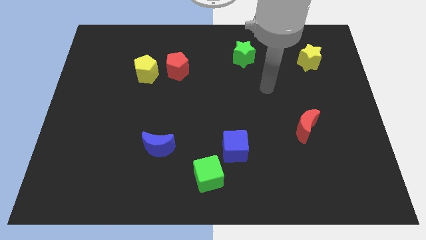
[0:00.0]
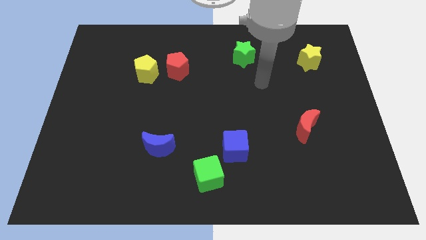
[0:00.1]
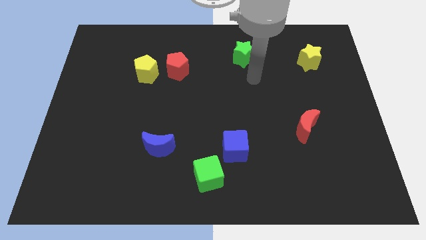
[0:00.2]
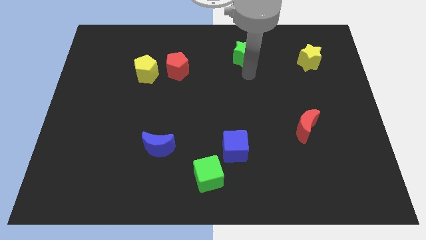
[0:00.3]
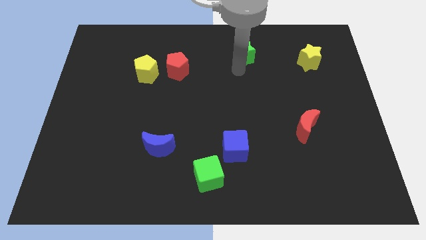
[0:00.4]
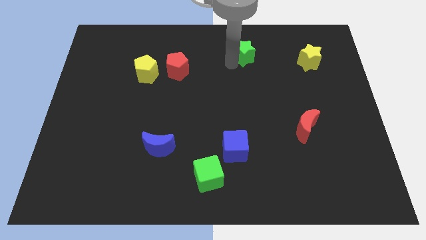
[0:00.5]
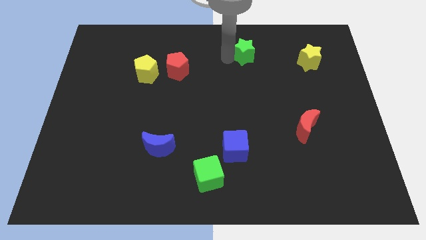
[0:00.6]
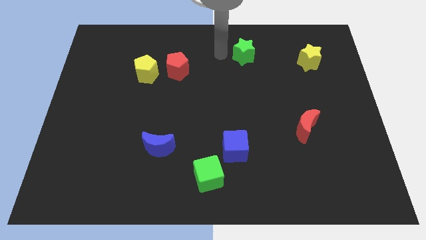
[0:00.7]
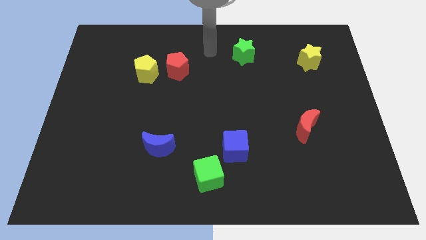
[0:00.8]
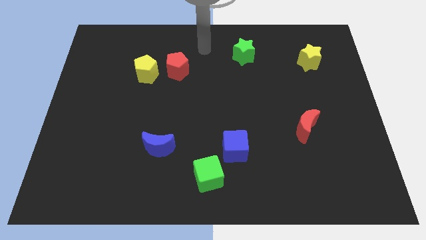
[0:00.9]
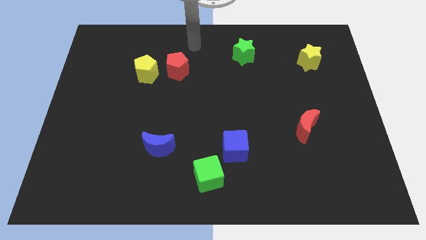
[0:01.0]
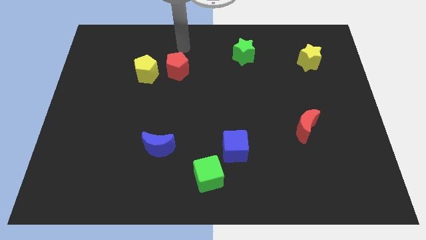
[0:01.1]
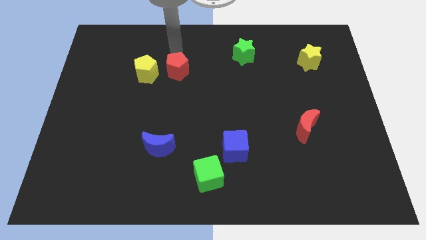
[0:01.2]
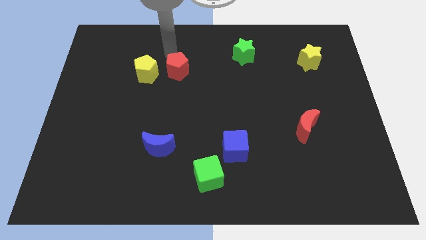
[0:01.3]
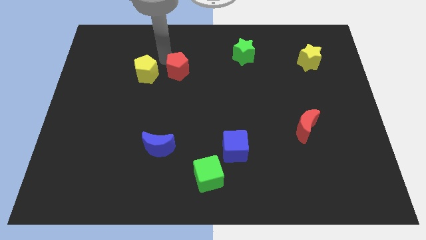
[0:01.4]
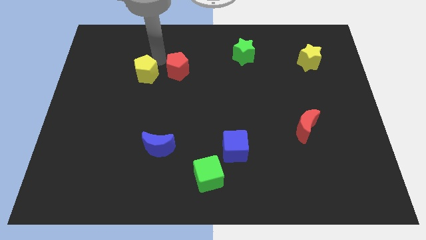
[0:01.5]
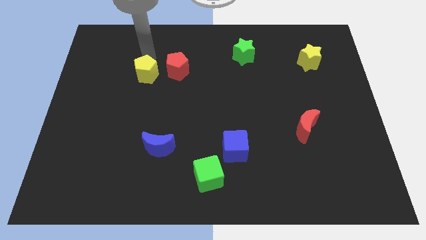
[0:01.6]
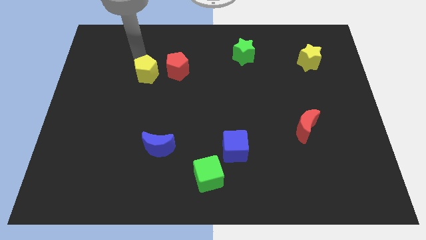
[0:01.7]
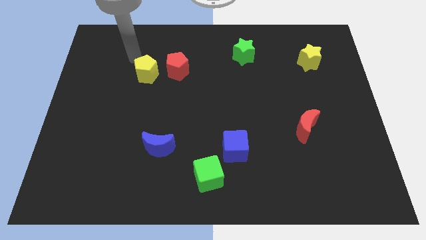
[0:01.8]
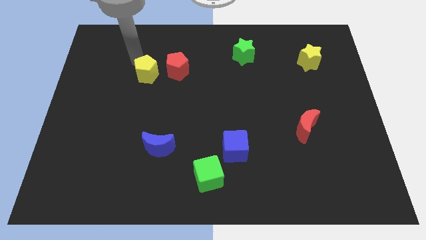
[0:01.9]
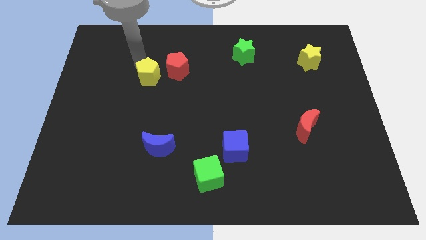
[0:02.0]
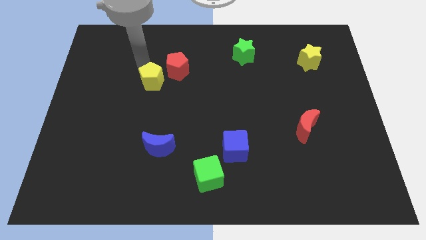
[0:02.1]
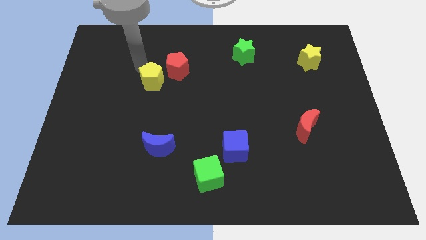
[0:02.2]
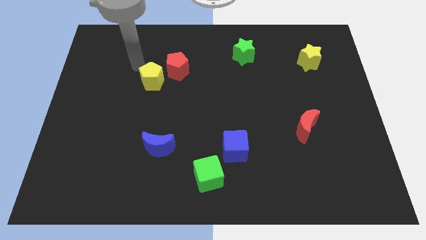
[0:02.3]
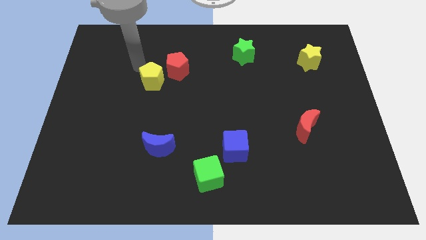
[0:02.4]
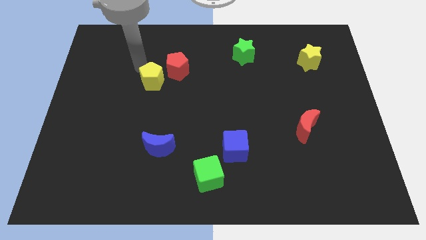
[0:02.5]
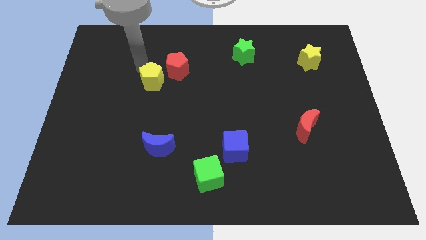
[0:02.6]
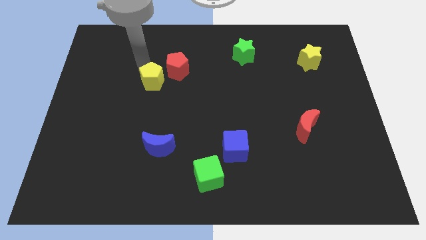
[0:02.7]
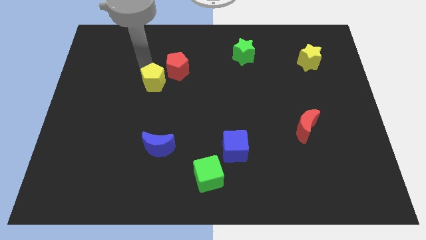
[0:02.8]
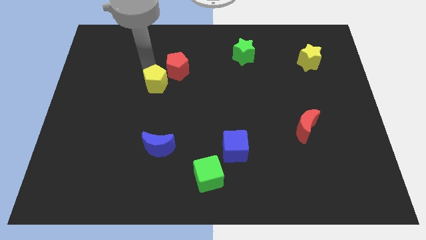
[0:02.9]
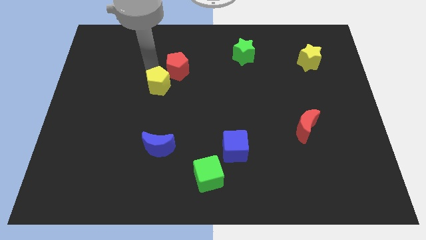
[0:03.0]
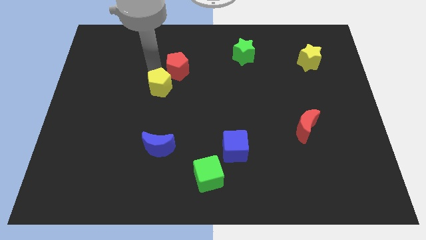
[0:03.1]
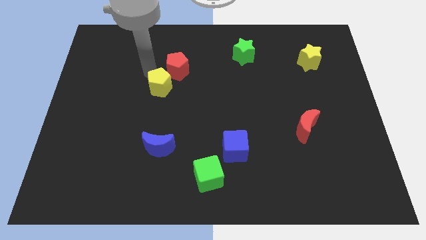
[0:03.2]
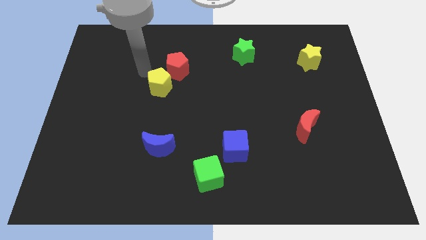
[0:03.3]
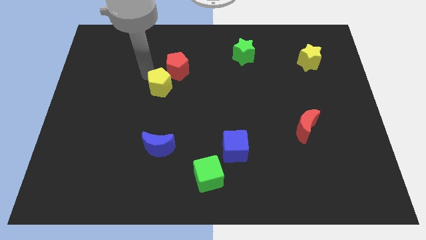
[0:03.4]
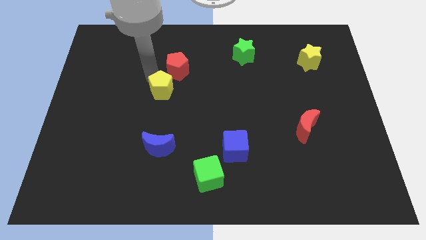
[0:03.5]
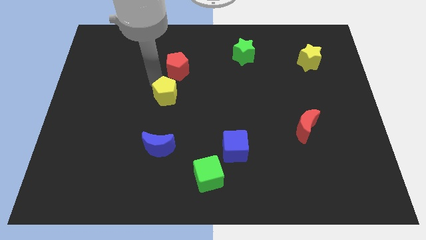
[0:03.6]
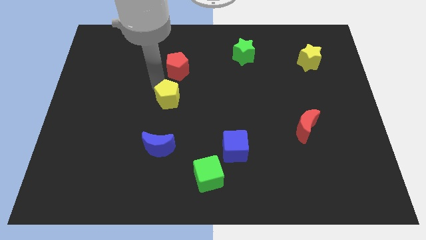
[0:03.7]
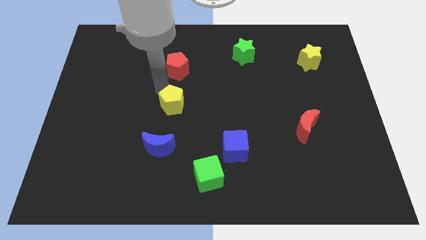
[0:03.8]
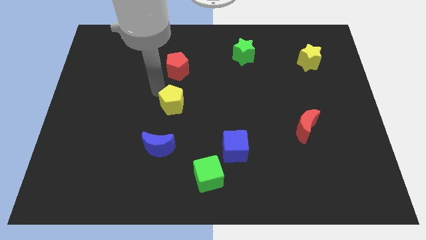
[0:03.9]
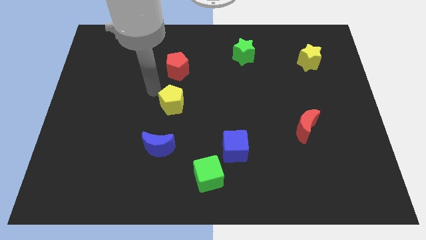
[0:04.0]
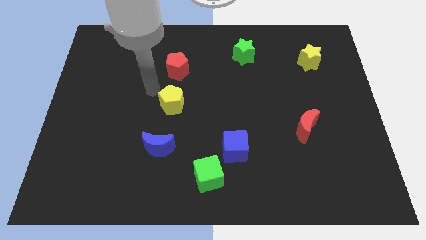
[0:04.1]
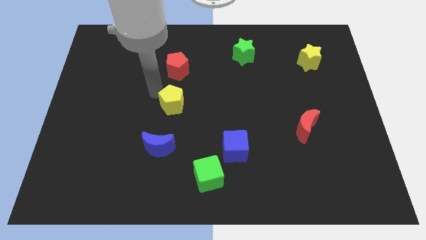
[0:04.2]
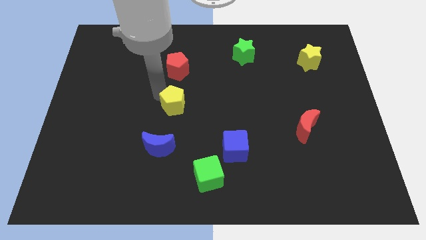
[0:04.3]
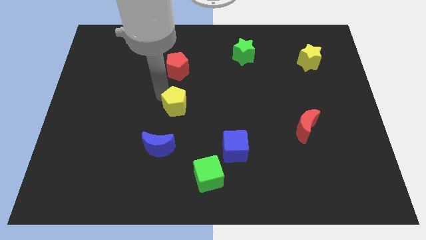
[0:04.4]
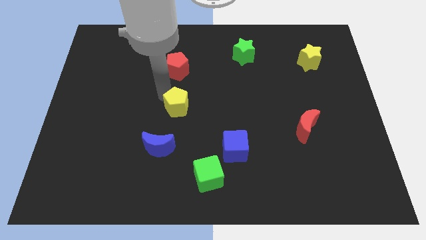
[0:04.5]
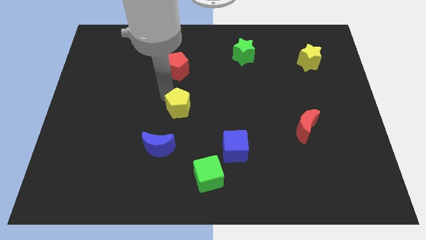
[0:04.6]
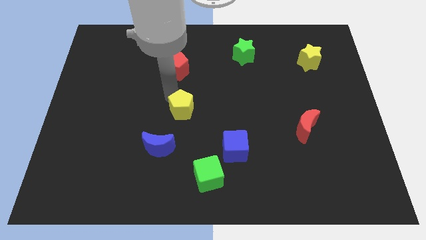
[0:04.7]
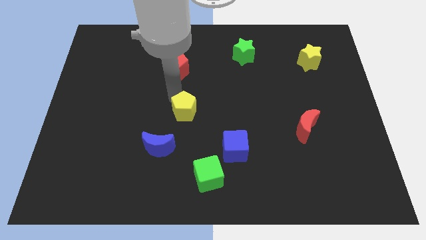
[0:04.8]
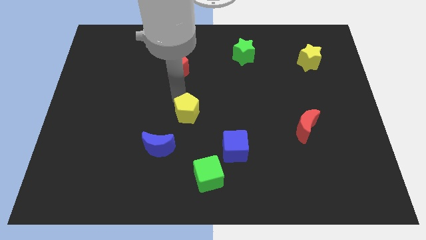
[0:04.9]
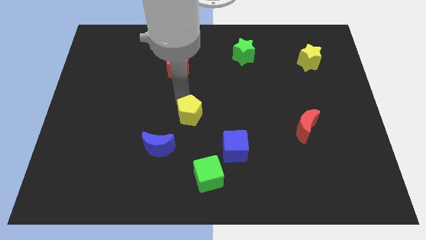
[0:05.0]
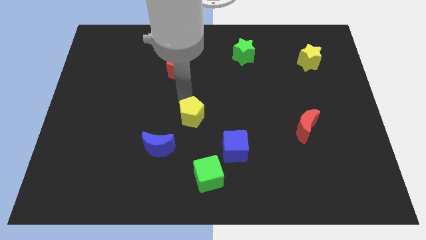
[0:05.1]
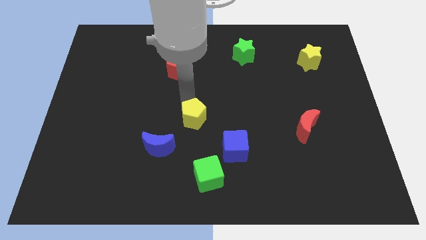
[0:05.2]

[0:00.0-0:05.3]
slide the yellow pentagon to the top side of the green cube

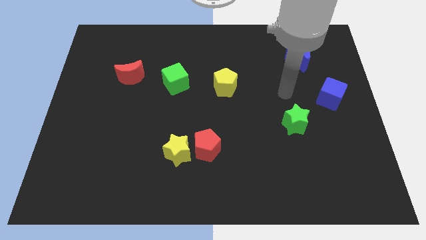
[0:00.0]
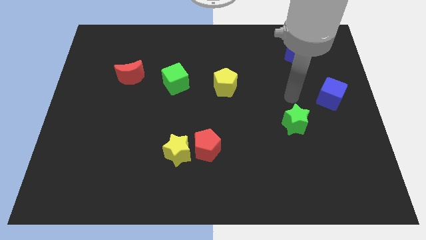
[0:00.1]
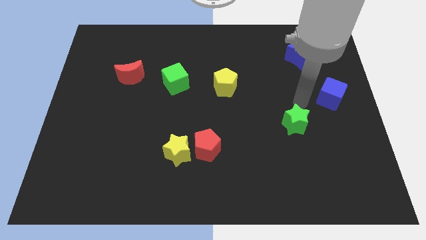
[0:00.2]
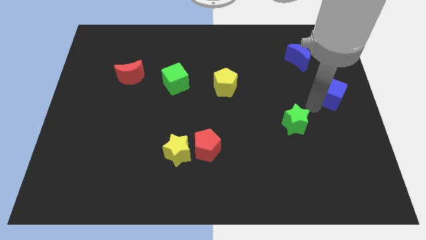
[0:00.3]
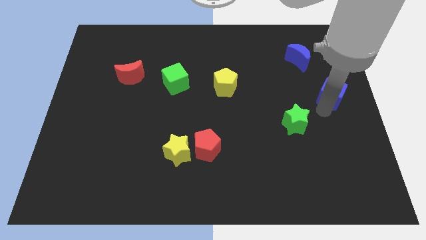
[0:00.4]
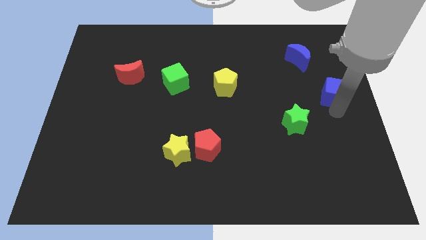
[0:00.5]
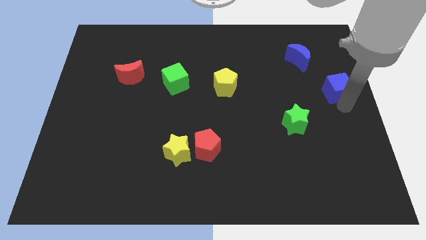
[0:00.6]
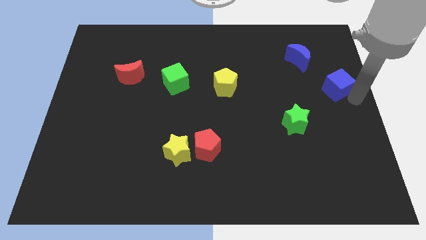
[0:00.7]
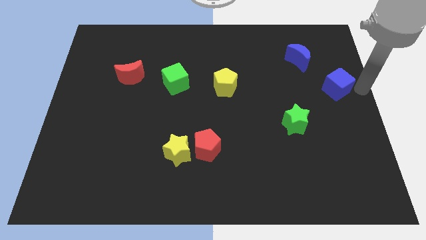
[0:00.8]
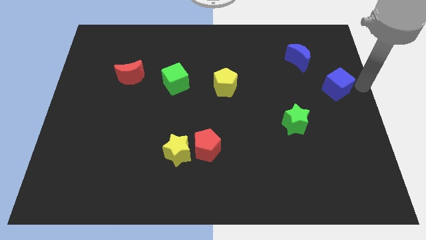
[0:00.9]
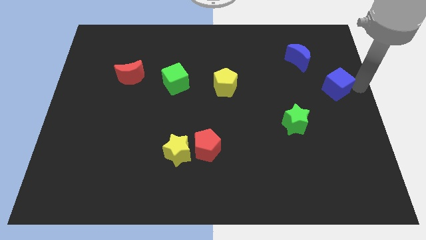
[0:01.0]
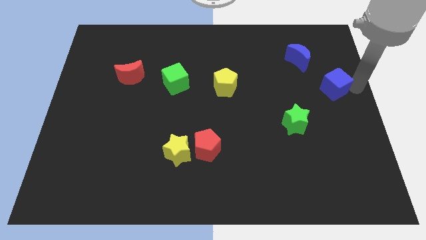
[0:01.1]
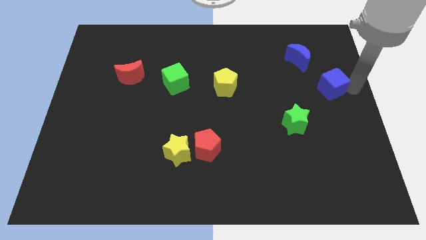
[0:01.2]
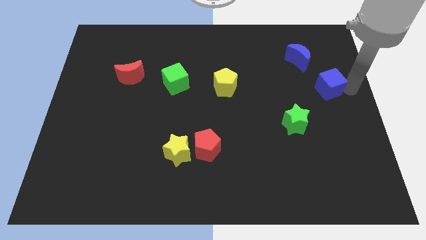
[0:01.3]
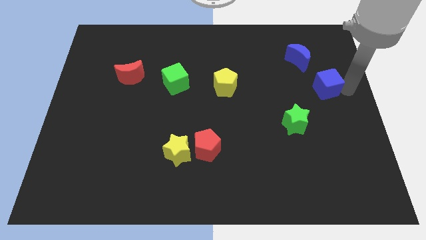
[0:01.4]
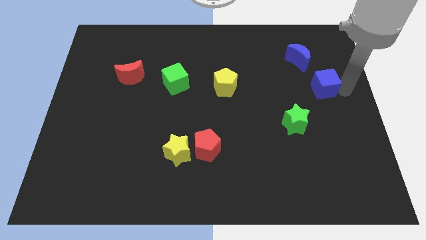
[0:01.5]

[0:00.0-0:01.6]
move the blue cube below the blue moon
